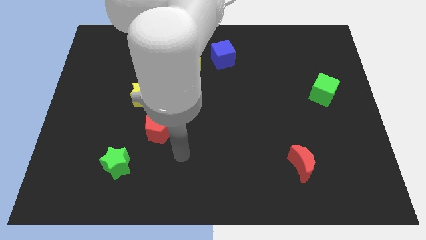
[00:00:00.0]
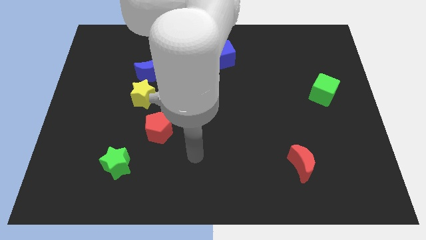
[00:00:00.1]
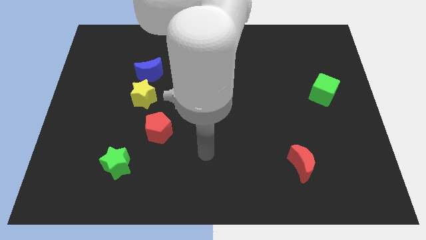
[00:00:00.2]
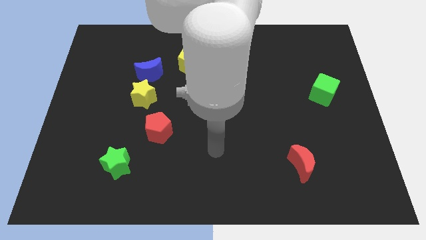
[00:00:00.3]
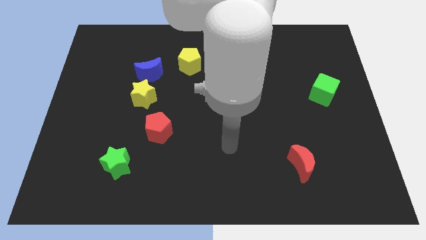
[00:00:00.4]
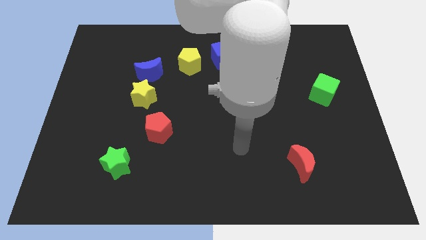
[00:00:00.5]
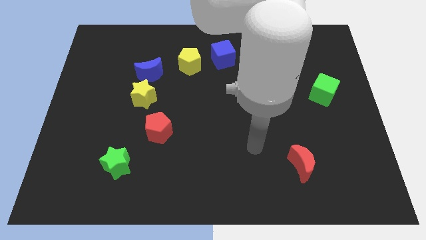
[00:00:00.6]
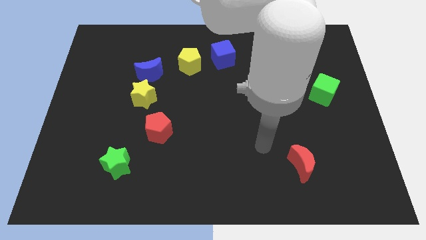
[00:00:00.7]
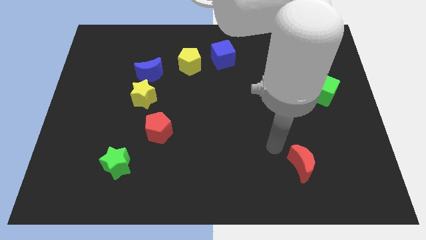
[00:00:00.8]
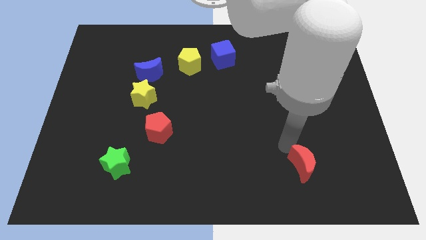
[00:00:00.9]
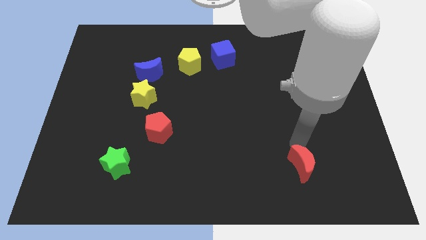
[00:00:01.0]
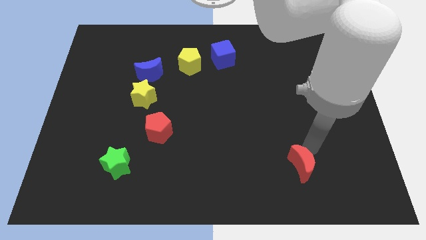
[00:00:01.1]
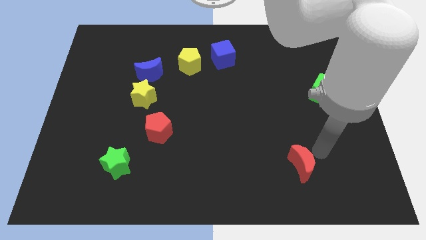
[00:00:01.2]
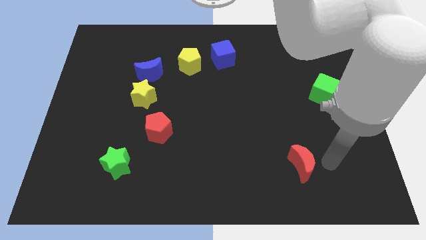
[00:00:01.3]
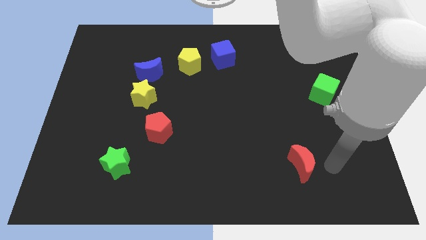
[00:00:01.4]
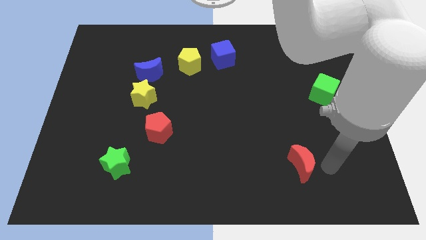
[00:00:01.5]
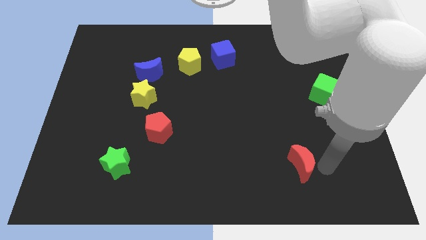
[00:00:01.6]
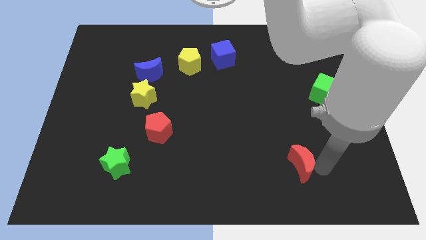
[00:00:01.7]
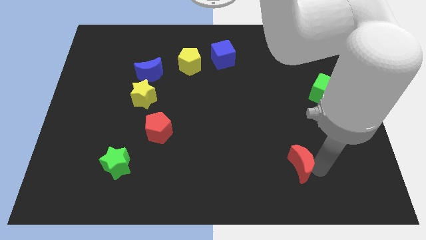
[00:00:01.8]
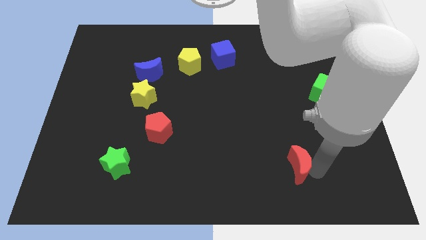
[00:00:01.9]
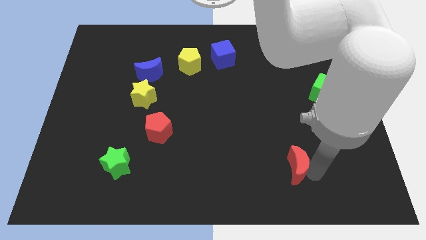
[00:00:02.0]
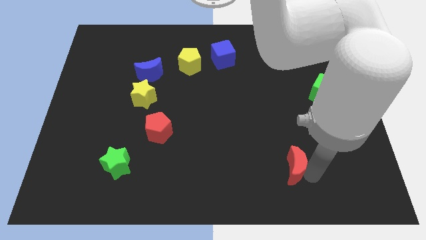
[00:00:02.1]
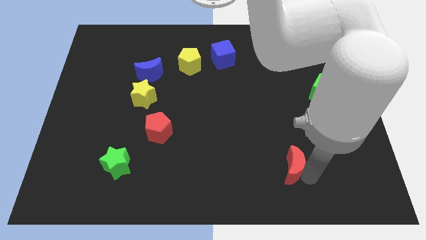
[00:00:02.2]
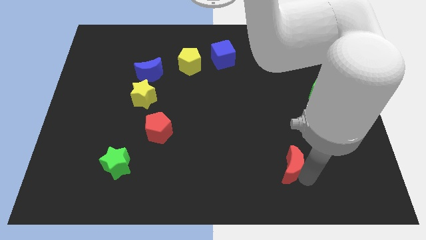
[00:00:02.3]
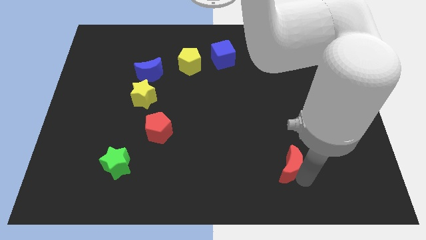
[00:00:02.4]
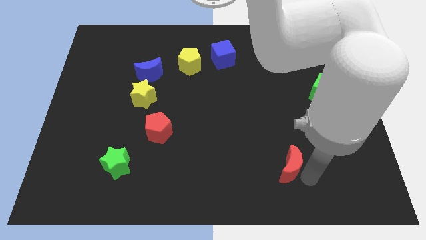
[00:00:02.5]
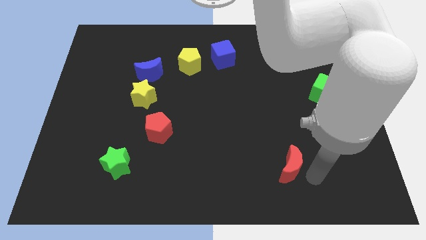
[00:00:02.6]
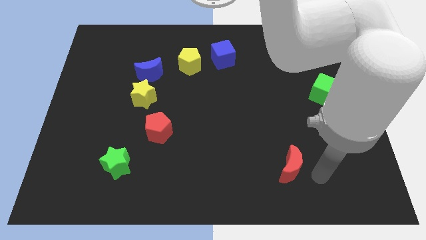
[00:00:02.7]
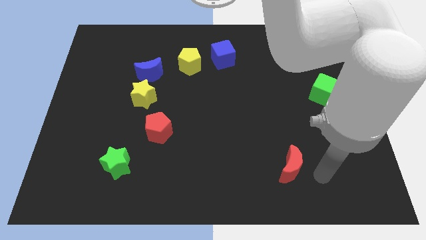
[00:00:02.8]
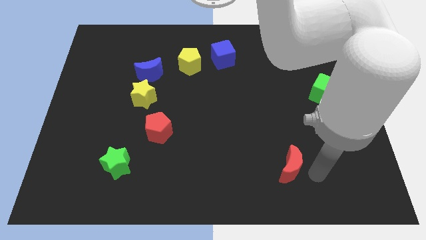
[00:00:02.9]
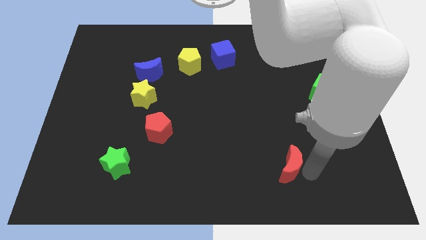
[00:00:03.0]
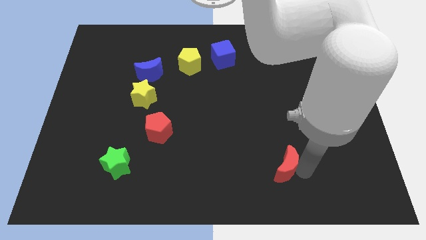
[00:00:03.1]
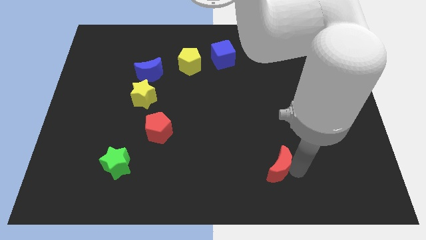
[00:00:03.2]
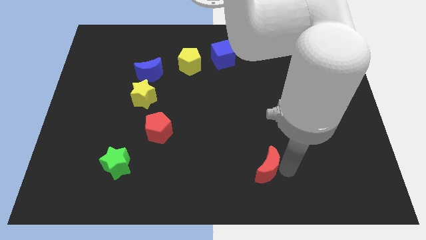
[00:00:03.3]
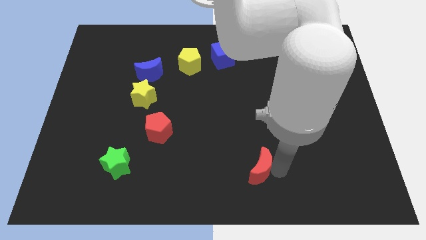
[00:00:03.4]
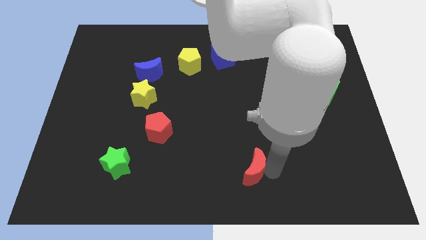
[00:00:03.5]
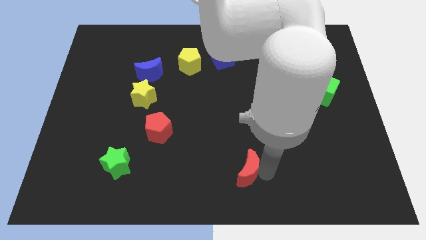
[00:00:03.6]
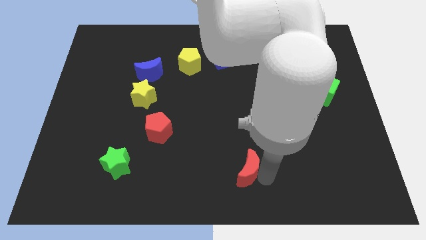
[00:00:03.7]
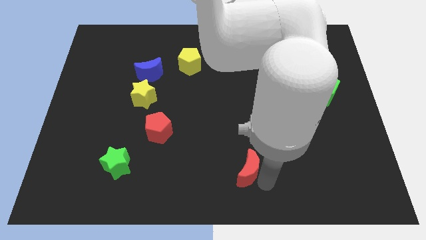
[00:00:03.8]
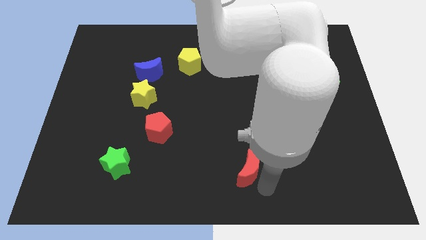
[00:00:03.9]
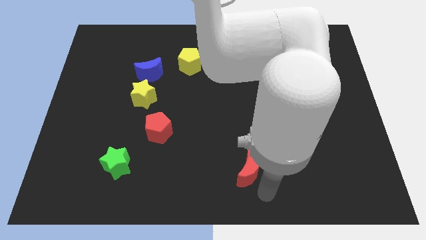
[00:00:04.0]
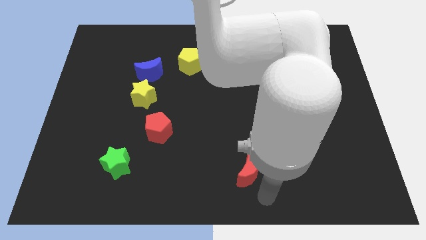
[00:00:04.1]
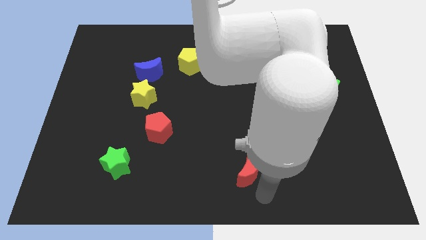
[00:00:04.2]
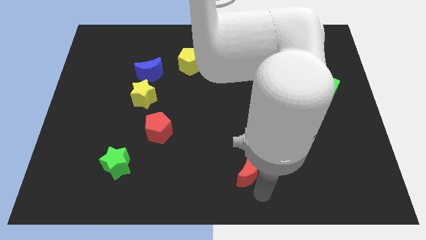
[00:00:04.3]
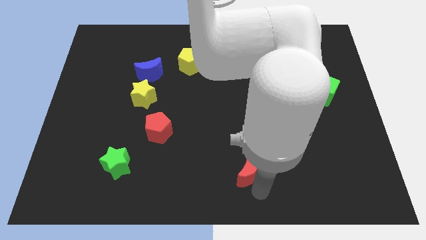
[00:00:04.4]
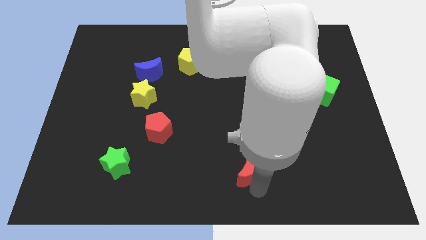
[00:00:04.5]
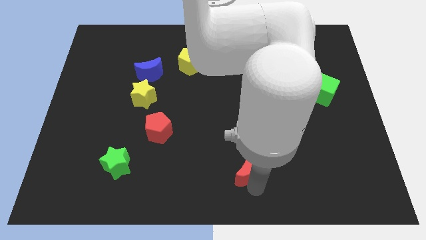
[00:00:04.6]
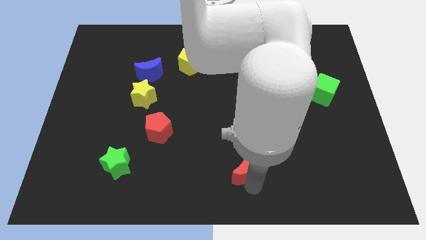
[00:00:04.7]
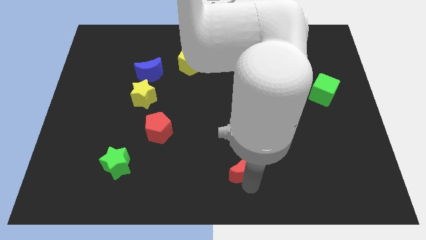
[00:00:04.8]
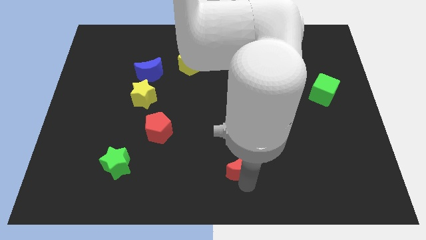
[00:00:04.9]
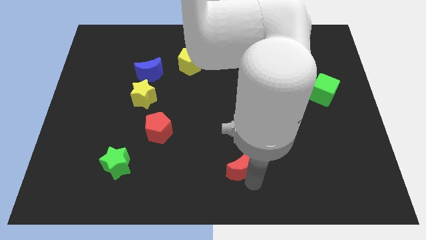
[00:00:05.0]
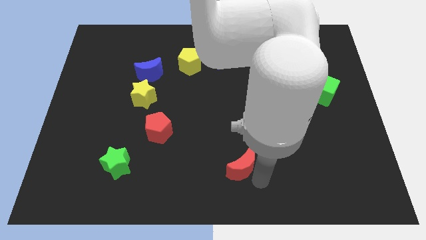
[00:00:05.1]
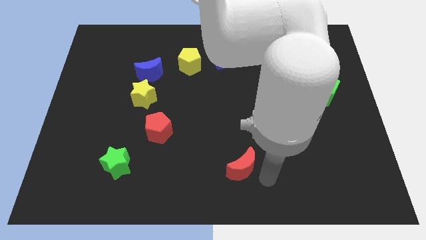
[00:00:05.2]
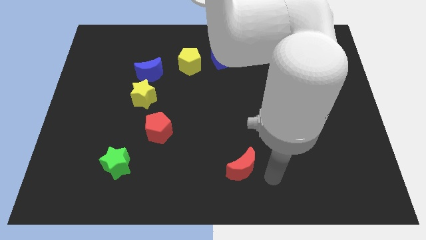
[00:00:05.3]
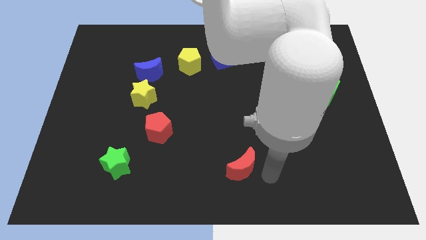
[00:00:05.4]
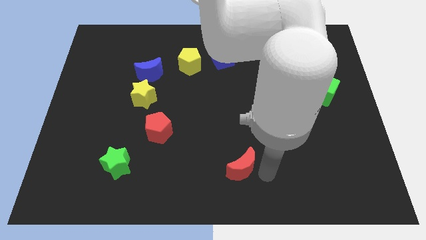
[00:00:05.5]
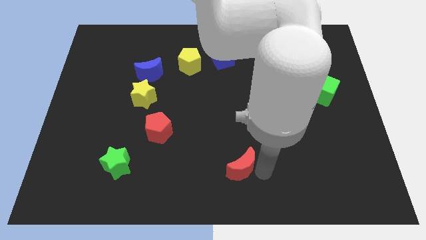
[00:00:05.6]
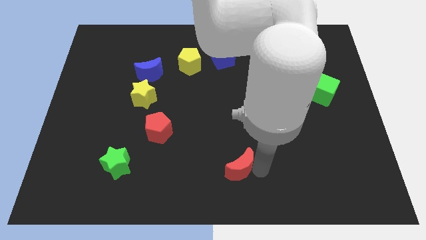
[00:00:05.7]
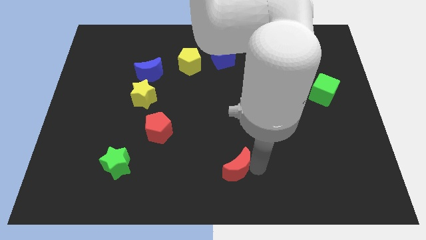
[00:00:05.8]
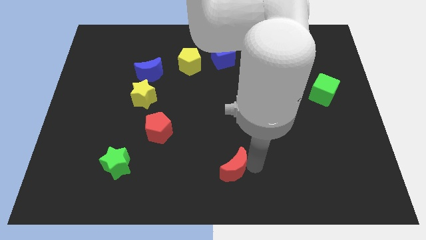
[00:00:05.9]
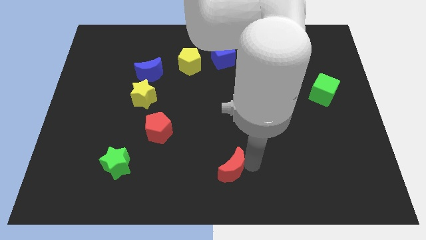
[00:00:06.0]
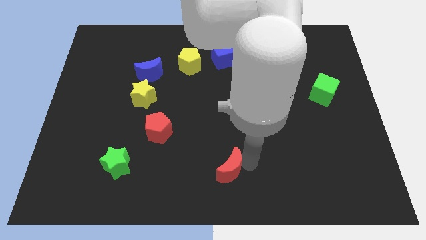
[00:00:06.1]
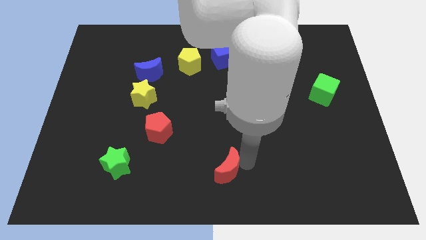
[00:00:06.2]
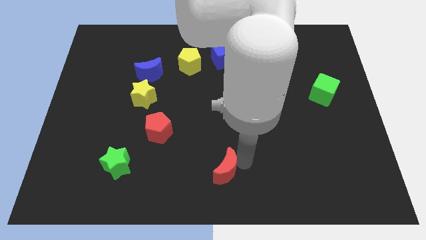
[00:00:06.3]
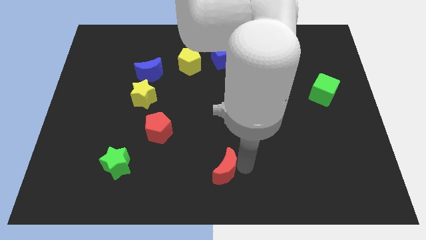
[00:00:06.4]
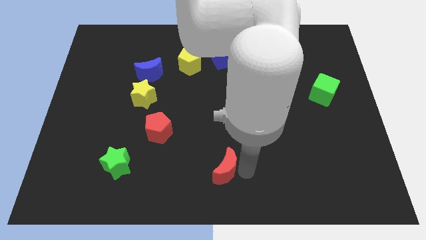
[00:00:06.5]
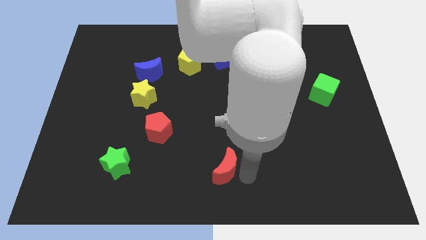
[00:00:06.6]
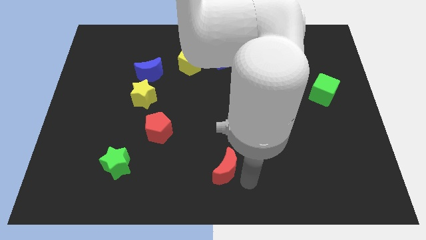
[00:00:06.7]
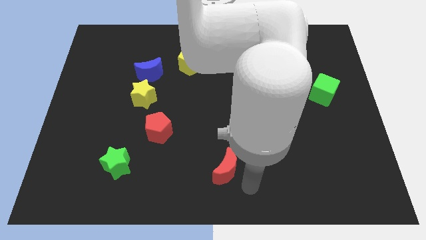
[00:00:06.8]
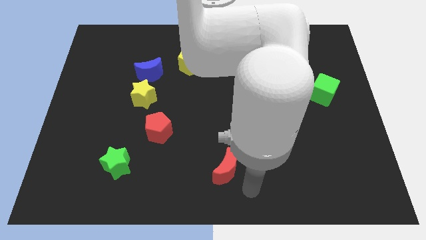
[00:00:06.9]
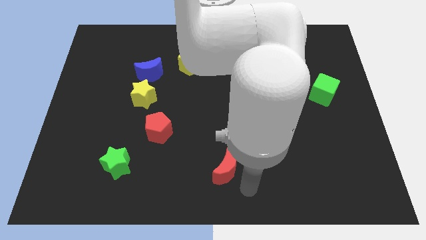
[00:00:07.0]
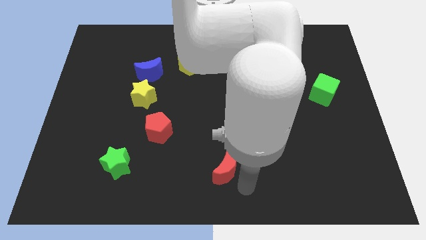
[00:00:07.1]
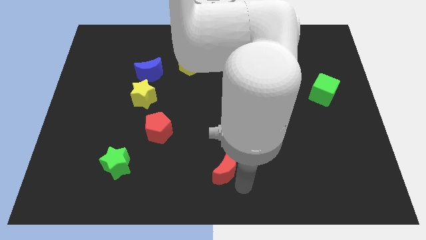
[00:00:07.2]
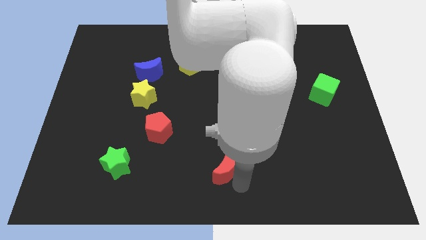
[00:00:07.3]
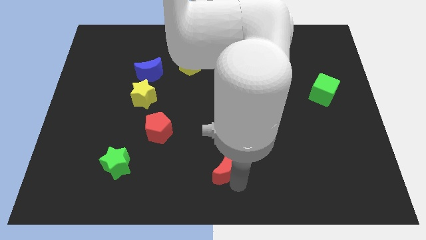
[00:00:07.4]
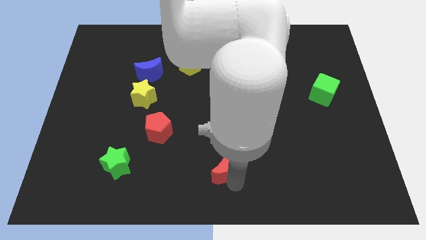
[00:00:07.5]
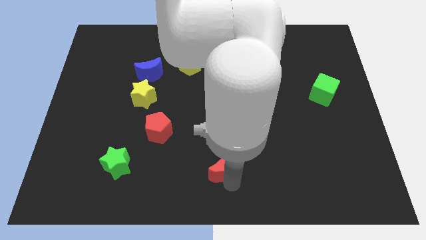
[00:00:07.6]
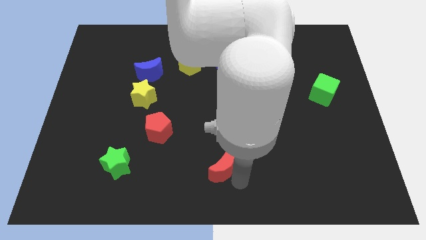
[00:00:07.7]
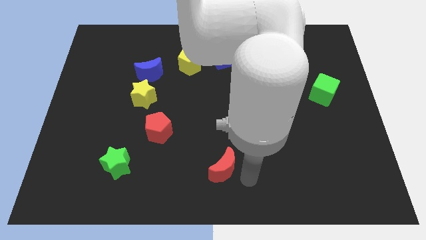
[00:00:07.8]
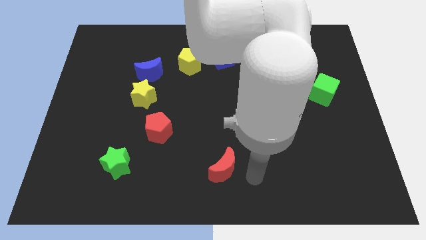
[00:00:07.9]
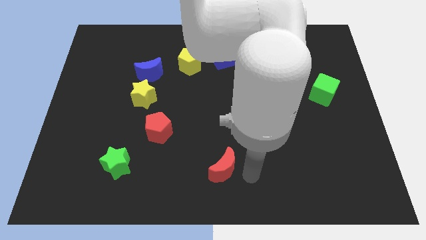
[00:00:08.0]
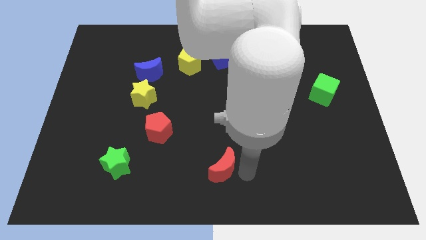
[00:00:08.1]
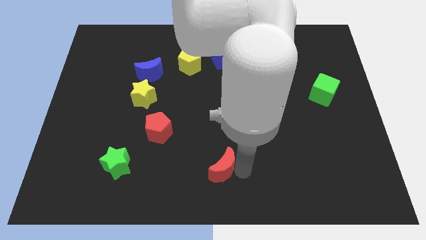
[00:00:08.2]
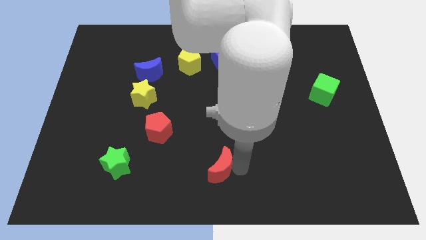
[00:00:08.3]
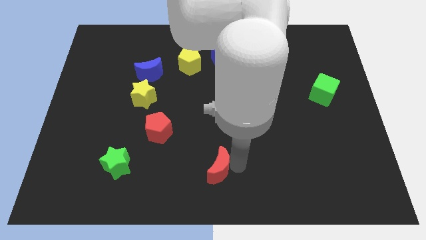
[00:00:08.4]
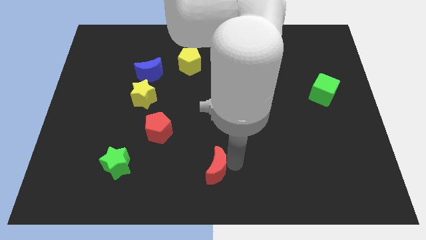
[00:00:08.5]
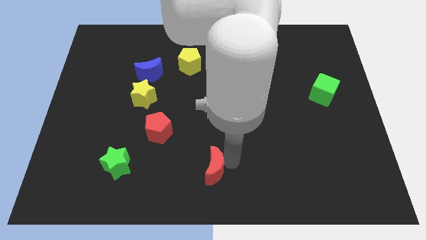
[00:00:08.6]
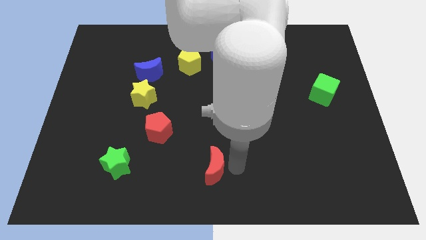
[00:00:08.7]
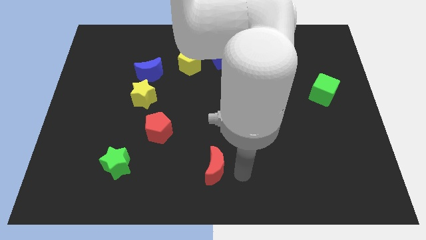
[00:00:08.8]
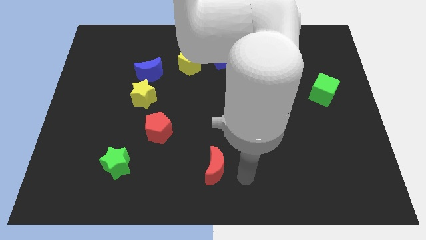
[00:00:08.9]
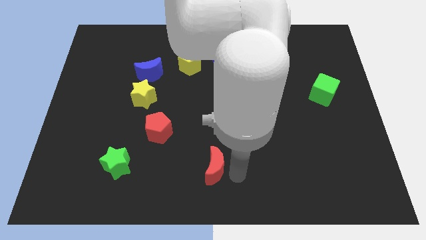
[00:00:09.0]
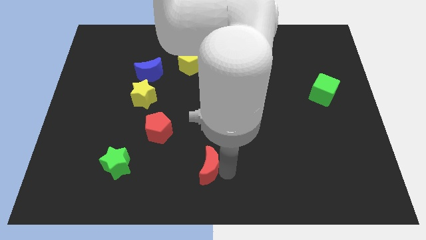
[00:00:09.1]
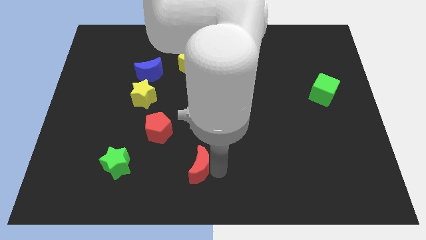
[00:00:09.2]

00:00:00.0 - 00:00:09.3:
slide the red moon left
